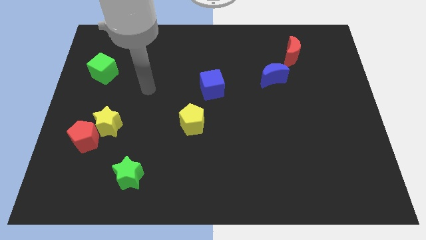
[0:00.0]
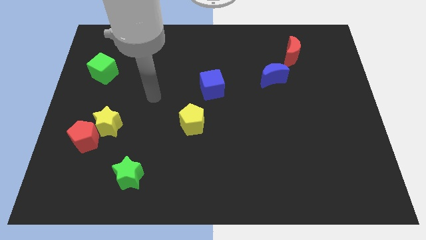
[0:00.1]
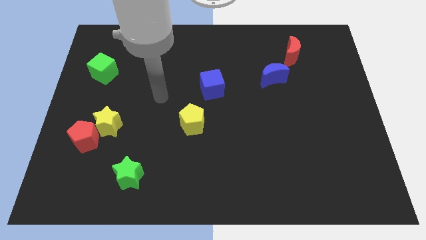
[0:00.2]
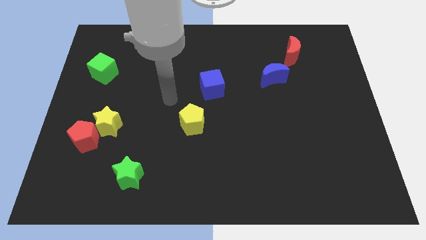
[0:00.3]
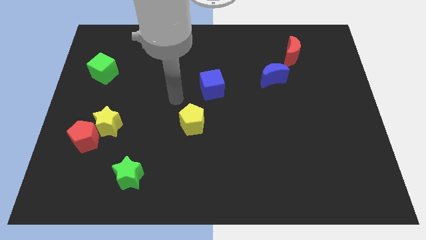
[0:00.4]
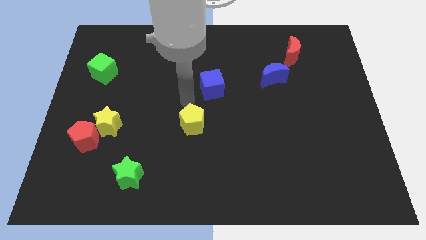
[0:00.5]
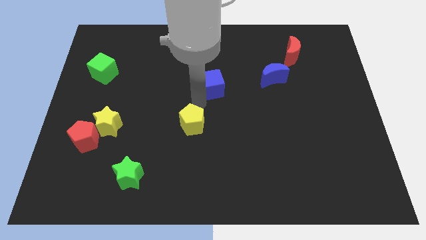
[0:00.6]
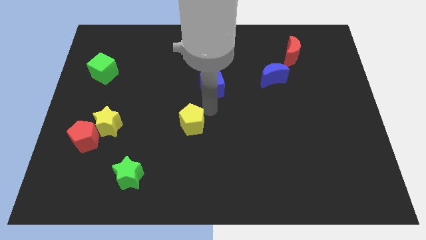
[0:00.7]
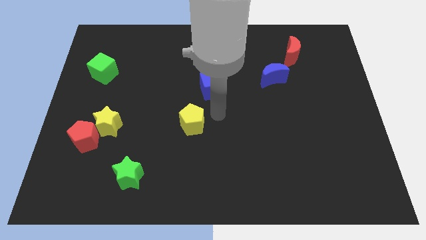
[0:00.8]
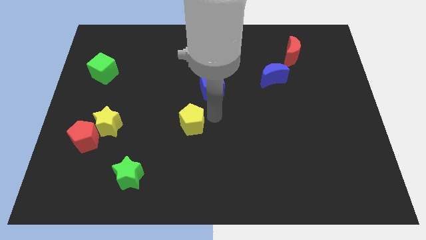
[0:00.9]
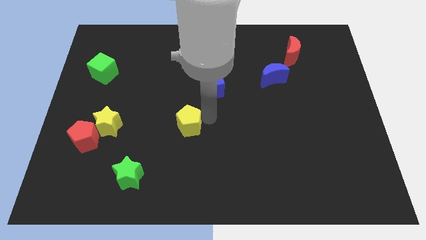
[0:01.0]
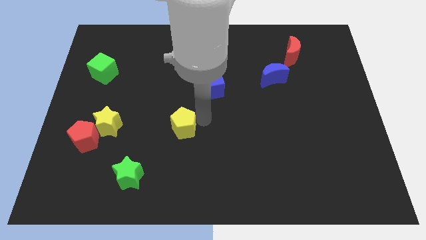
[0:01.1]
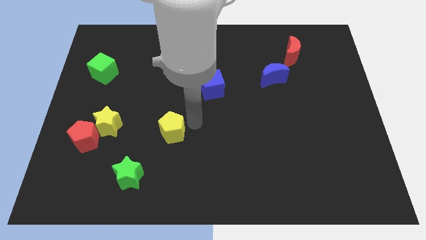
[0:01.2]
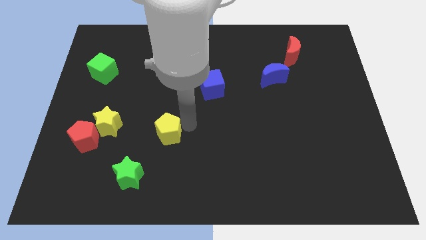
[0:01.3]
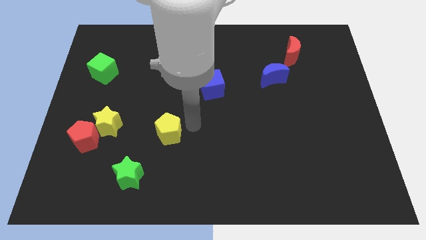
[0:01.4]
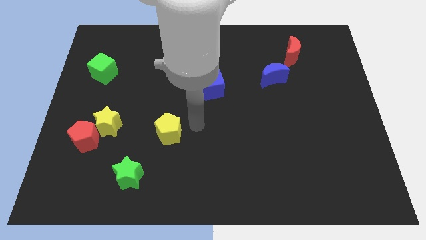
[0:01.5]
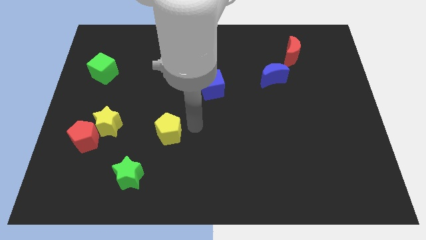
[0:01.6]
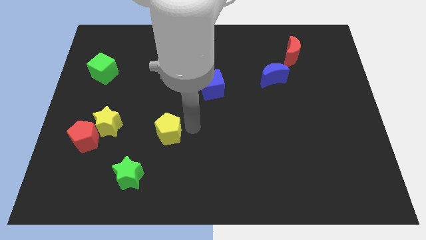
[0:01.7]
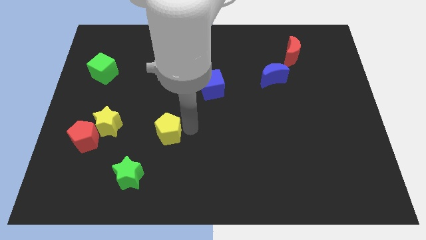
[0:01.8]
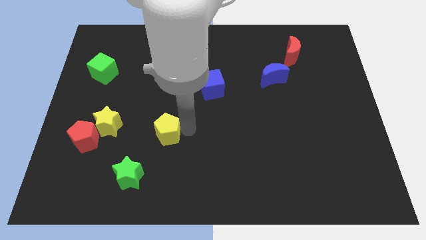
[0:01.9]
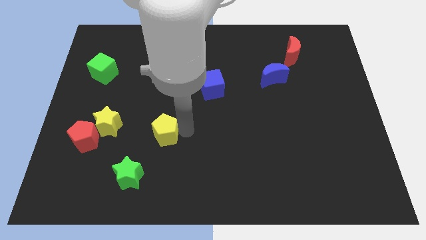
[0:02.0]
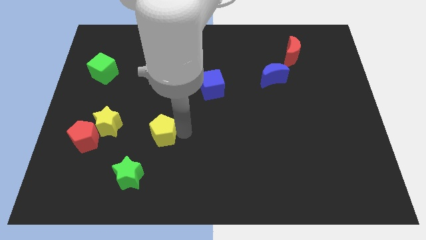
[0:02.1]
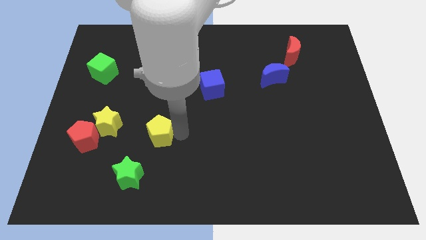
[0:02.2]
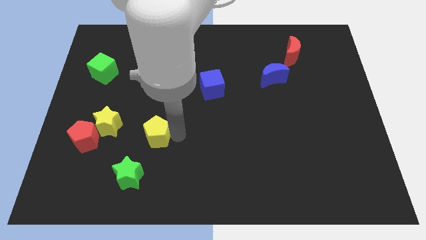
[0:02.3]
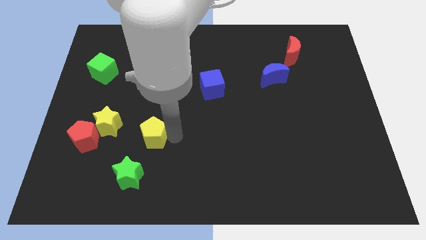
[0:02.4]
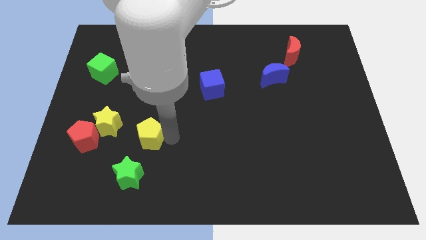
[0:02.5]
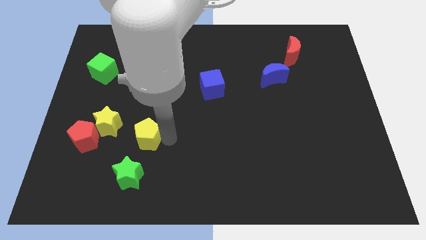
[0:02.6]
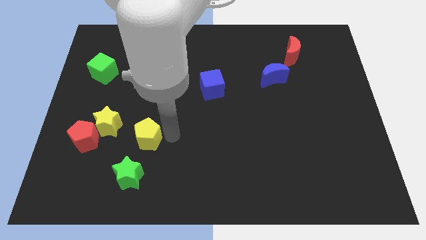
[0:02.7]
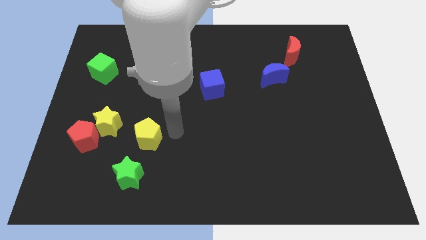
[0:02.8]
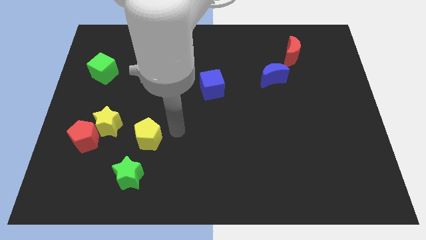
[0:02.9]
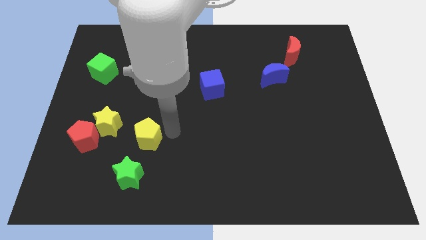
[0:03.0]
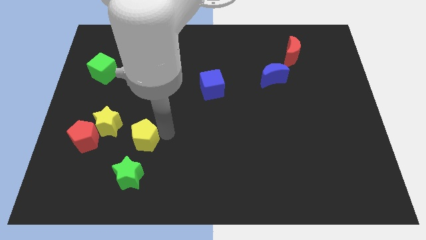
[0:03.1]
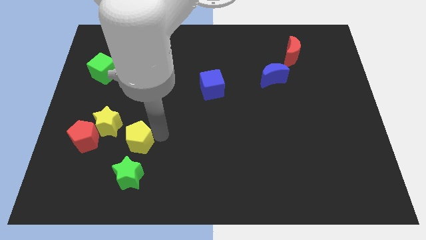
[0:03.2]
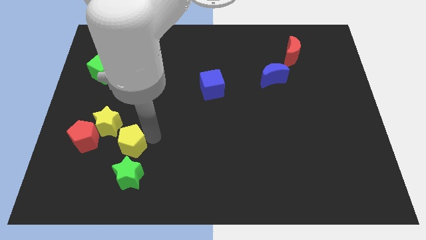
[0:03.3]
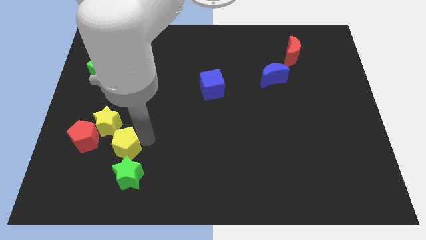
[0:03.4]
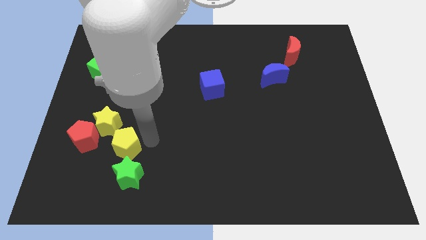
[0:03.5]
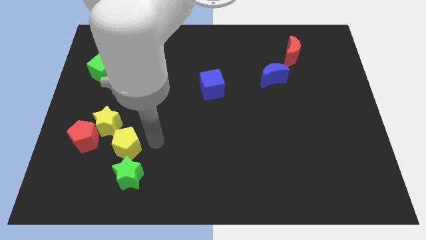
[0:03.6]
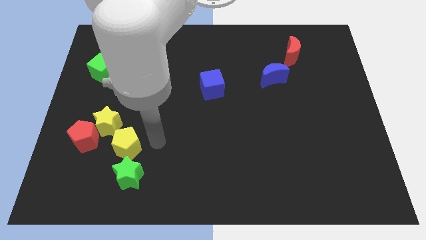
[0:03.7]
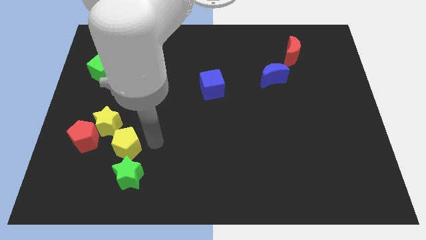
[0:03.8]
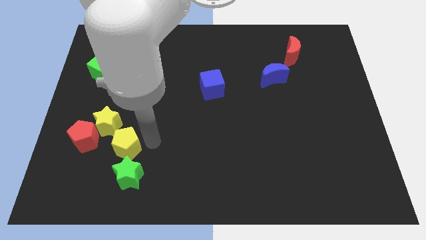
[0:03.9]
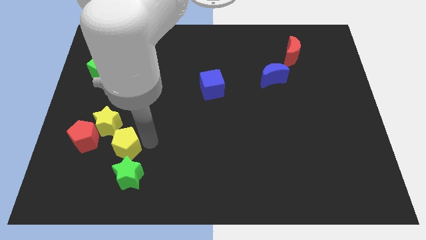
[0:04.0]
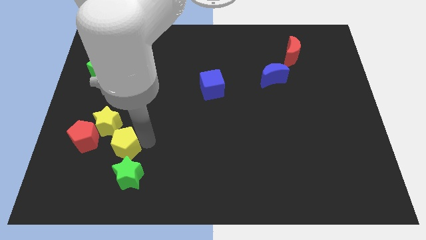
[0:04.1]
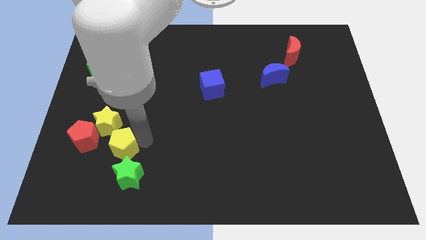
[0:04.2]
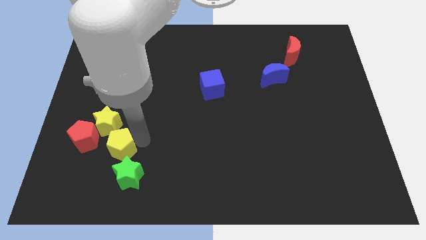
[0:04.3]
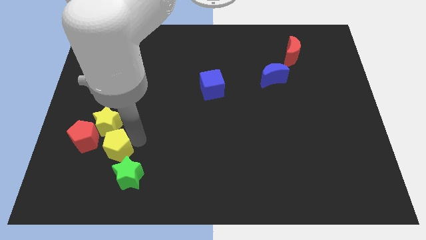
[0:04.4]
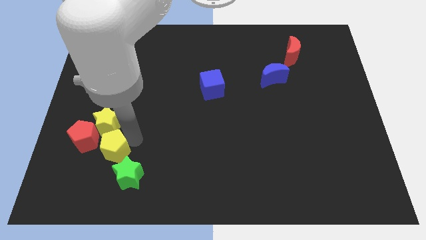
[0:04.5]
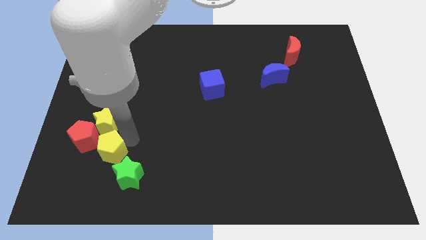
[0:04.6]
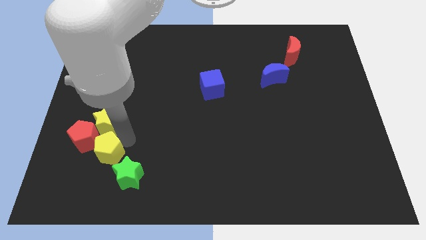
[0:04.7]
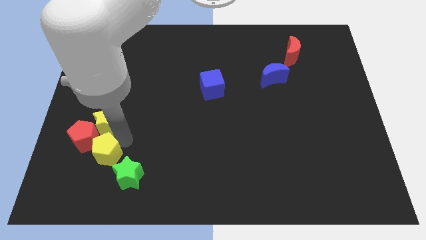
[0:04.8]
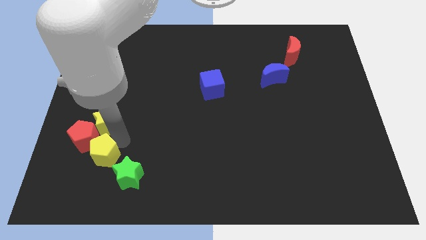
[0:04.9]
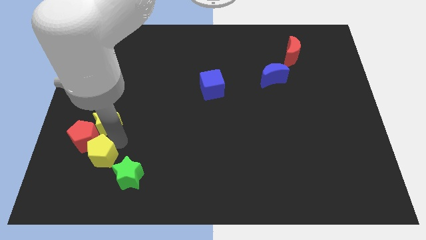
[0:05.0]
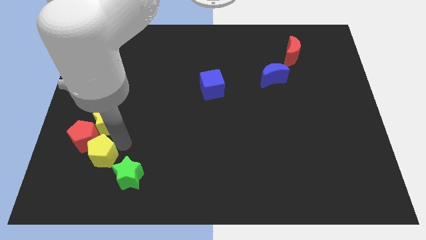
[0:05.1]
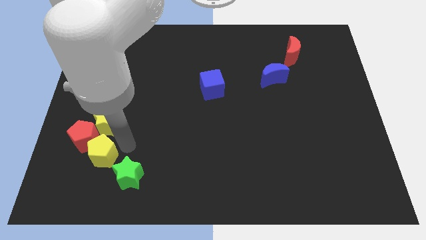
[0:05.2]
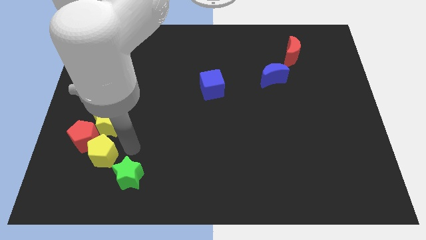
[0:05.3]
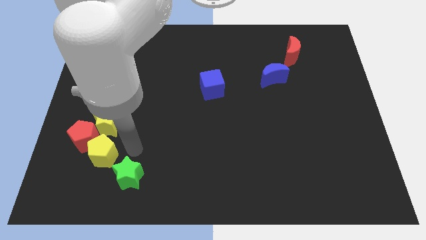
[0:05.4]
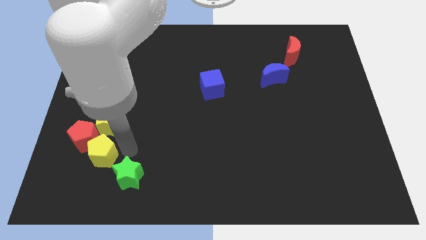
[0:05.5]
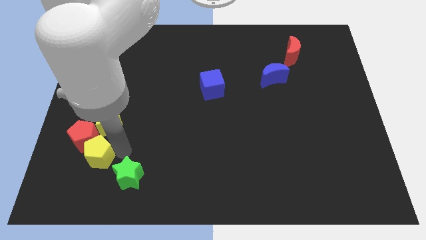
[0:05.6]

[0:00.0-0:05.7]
slide the yellow pentagon diagonally down and to the left of the yellow star
